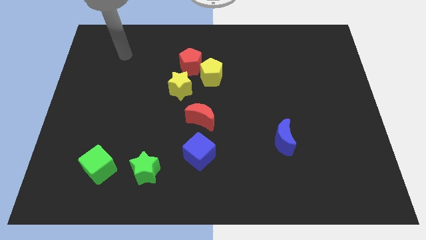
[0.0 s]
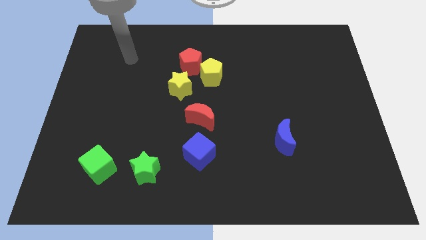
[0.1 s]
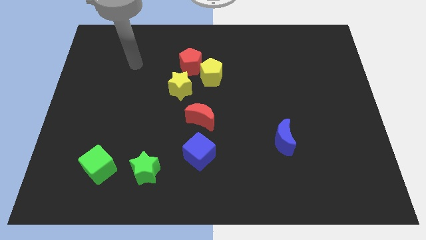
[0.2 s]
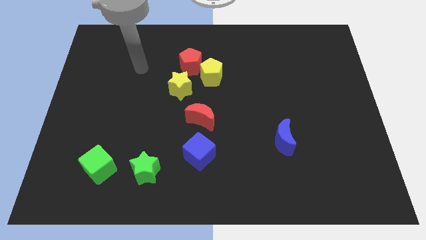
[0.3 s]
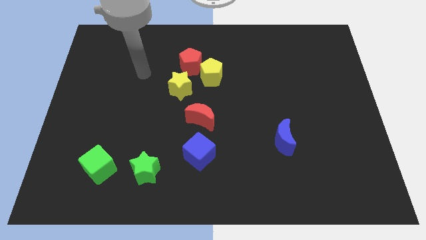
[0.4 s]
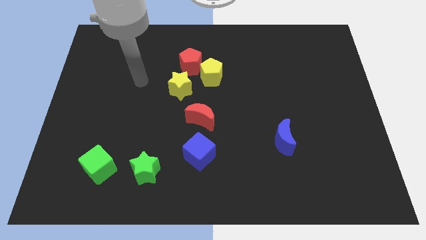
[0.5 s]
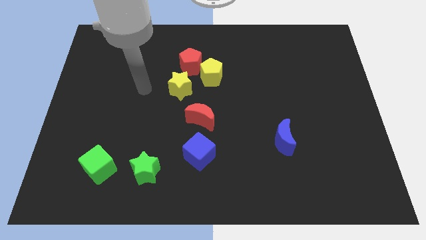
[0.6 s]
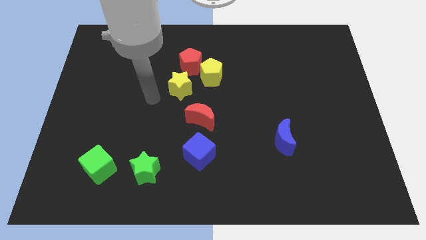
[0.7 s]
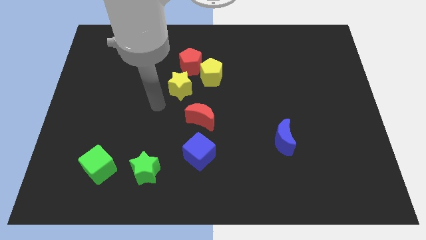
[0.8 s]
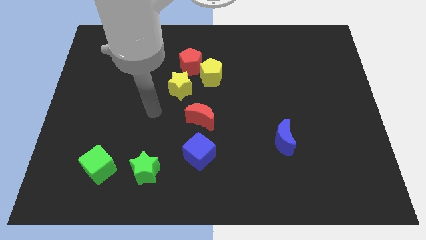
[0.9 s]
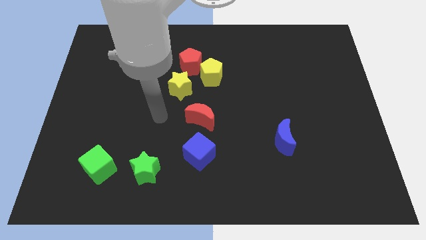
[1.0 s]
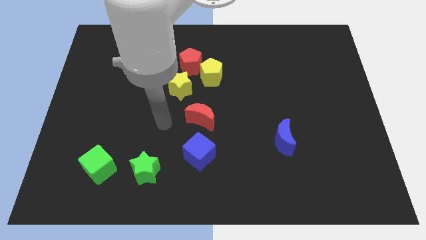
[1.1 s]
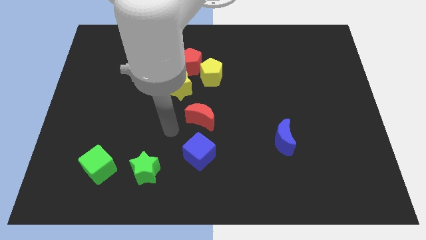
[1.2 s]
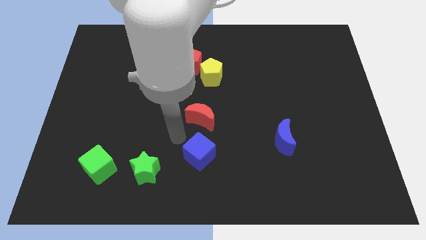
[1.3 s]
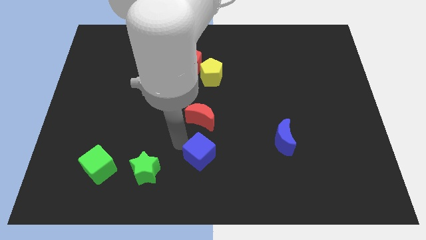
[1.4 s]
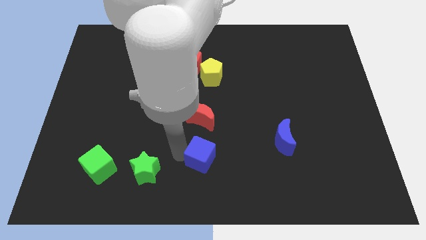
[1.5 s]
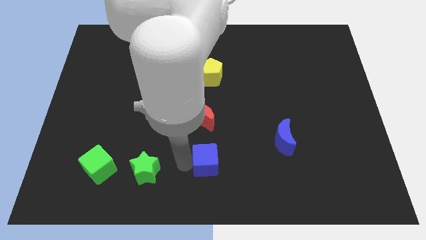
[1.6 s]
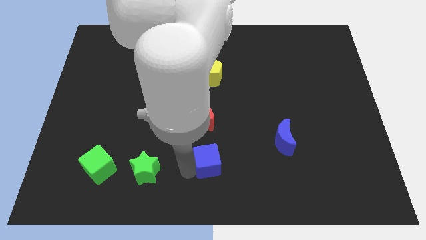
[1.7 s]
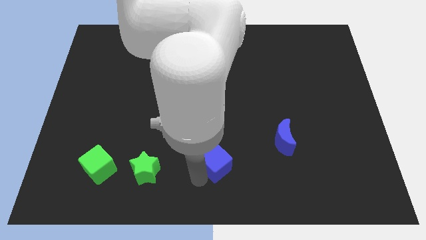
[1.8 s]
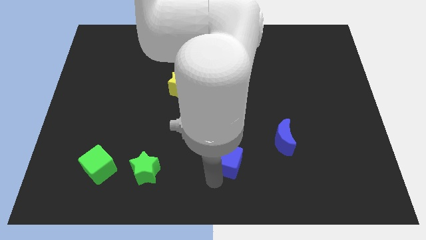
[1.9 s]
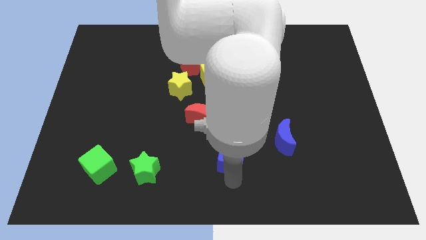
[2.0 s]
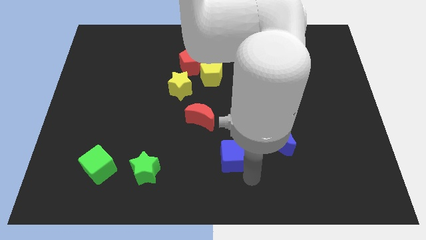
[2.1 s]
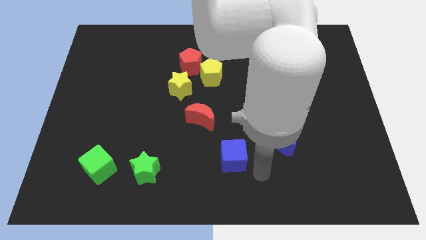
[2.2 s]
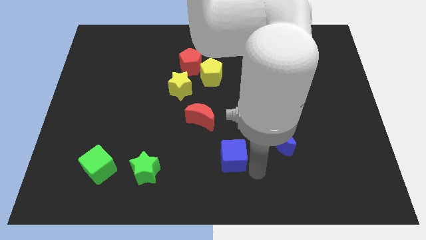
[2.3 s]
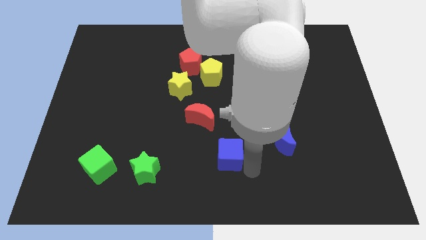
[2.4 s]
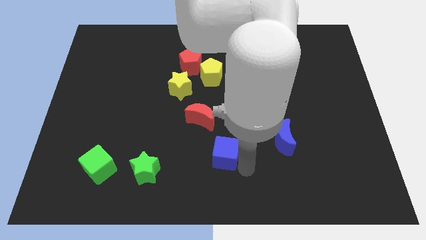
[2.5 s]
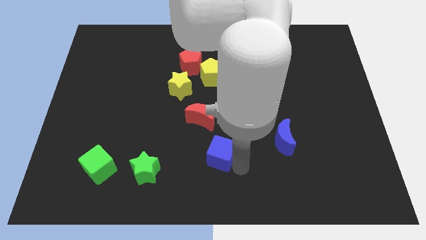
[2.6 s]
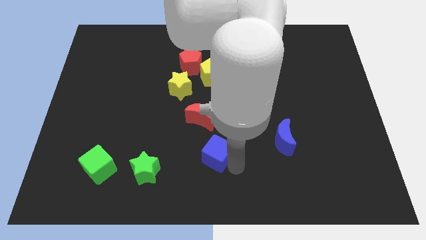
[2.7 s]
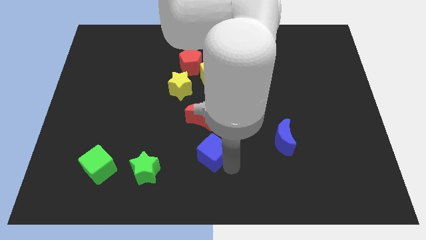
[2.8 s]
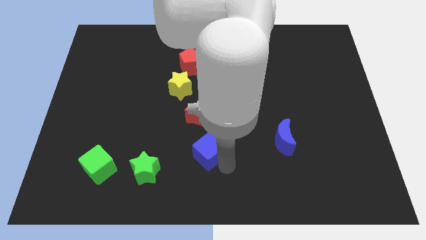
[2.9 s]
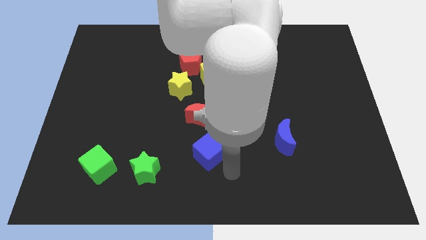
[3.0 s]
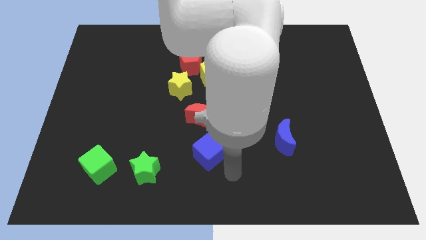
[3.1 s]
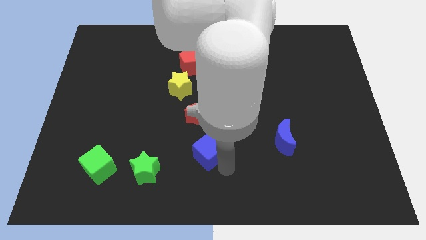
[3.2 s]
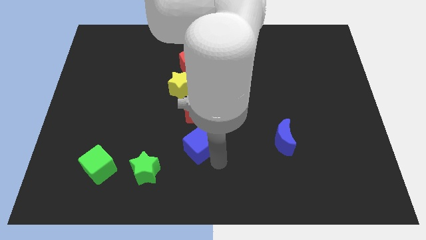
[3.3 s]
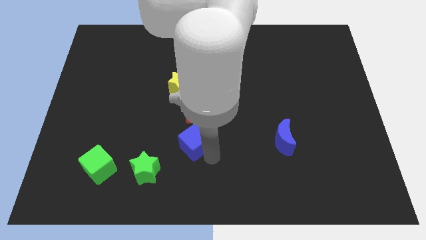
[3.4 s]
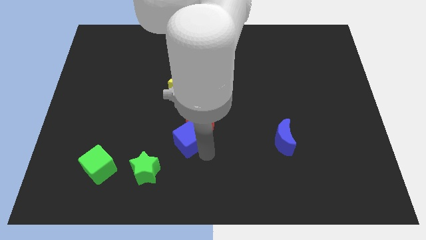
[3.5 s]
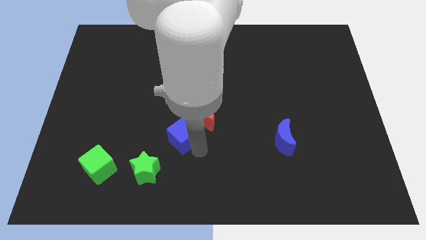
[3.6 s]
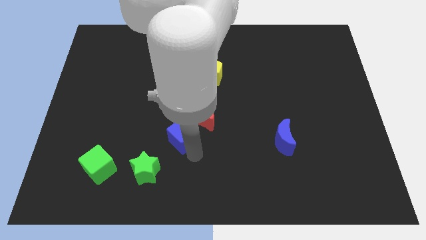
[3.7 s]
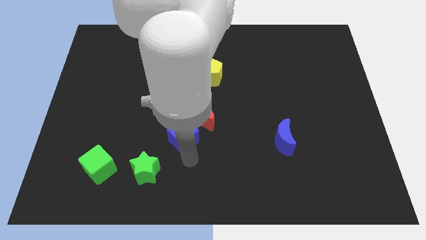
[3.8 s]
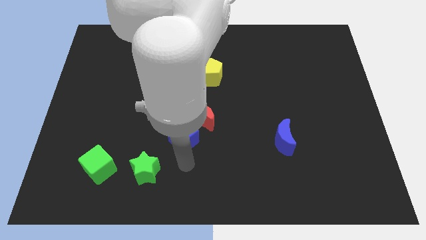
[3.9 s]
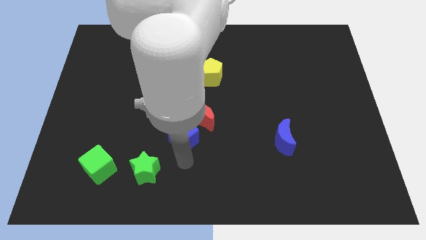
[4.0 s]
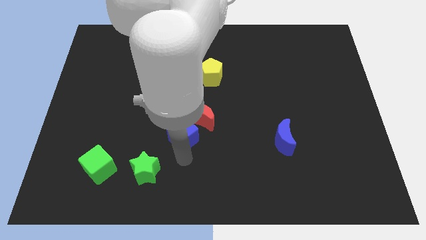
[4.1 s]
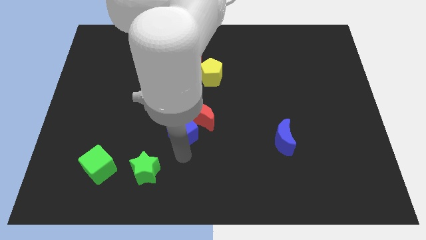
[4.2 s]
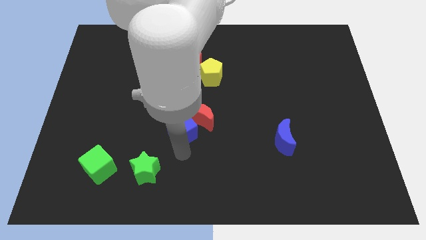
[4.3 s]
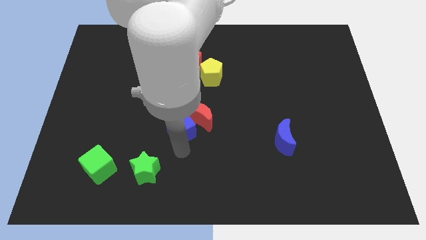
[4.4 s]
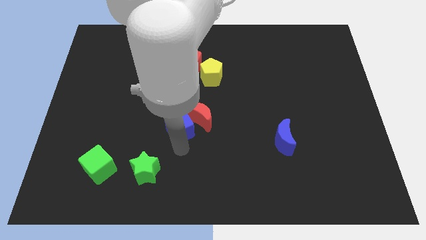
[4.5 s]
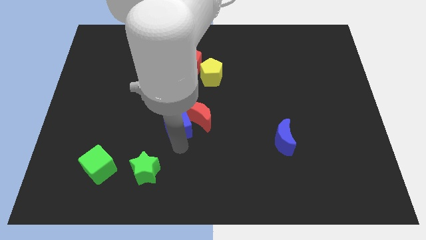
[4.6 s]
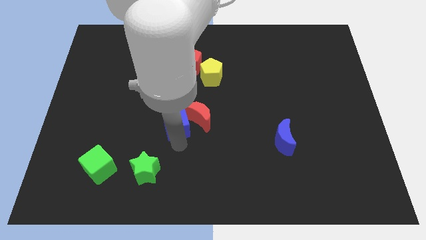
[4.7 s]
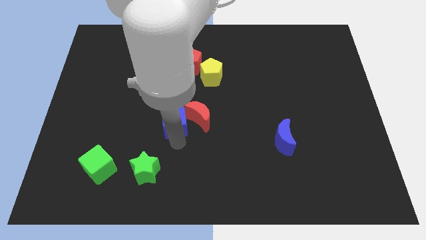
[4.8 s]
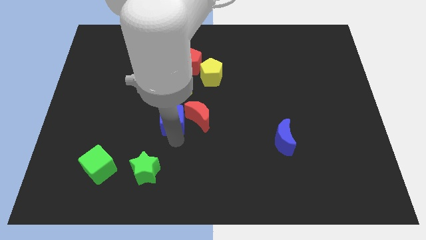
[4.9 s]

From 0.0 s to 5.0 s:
slide the blue cube upwards a little

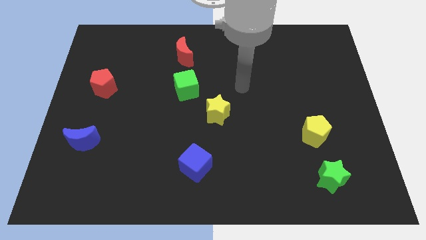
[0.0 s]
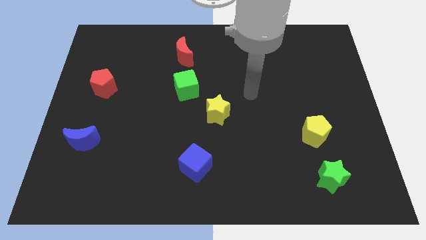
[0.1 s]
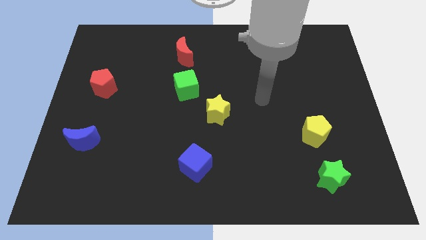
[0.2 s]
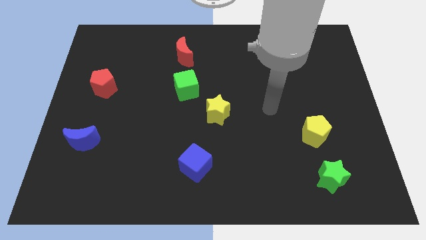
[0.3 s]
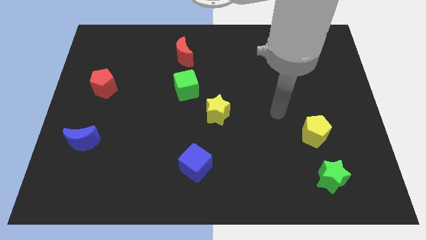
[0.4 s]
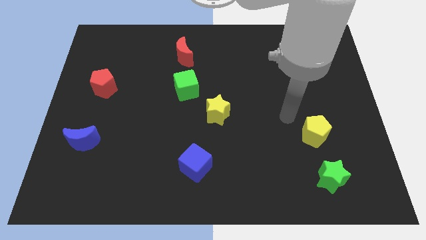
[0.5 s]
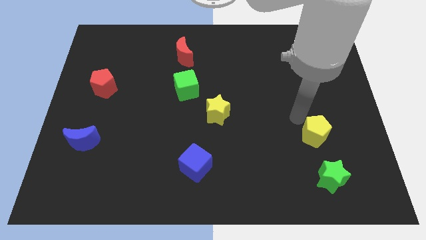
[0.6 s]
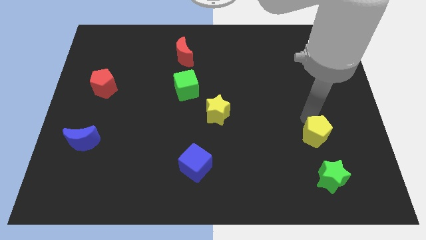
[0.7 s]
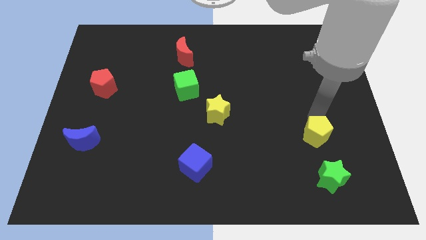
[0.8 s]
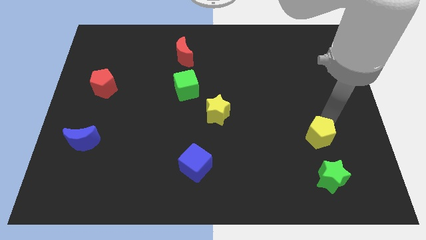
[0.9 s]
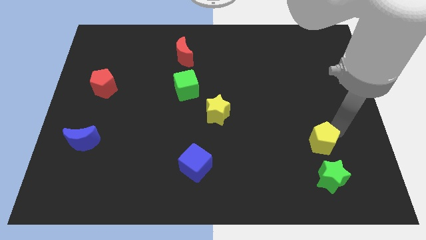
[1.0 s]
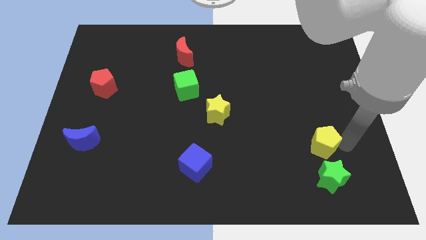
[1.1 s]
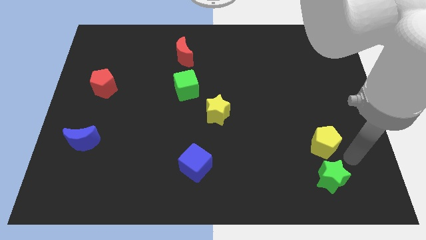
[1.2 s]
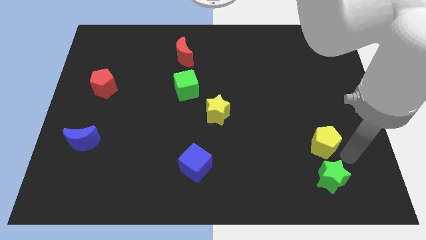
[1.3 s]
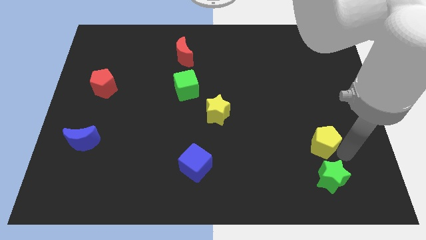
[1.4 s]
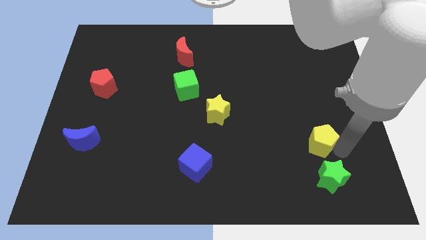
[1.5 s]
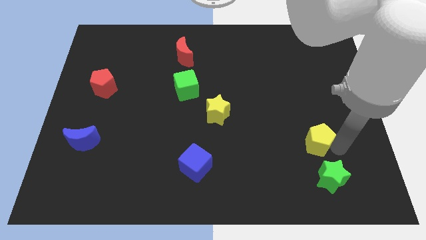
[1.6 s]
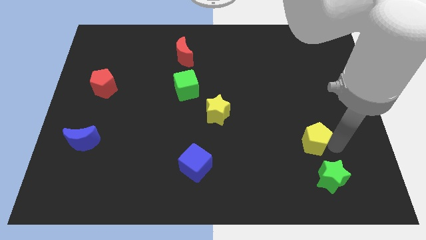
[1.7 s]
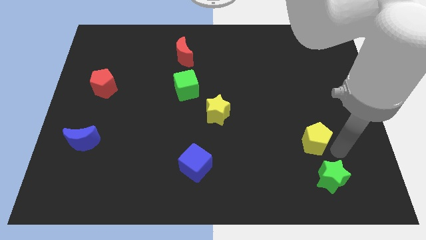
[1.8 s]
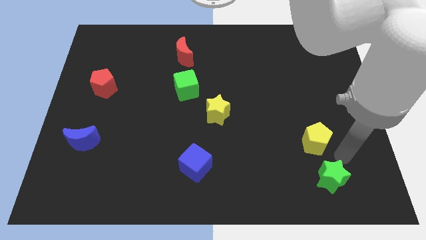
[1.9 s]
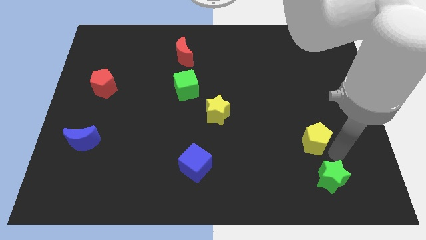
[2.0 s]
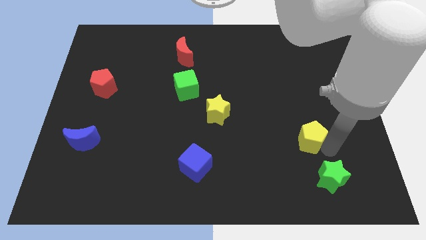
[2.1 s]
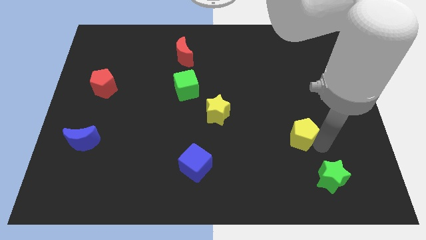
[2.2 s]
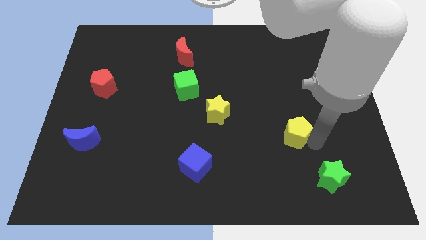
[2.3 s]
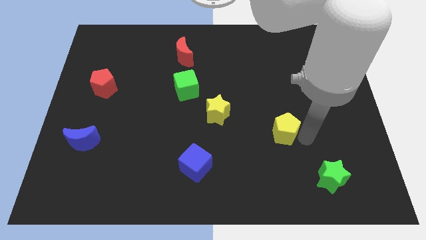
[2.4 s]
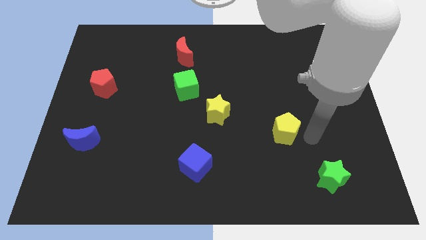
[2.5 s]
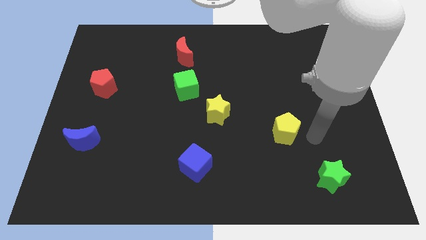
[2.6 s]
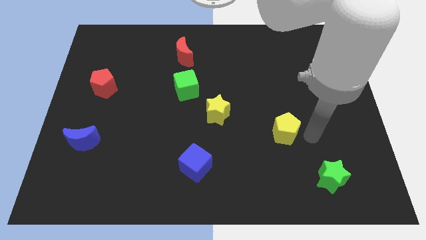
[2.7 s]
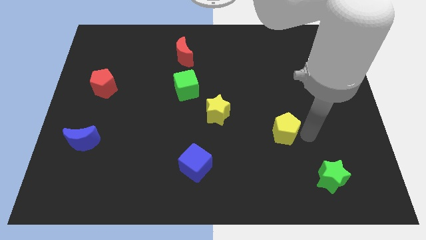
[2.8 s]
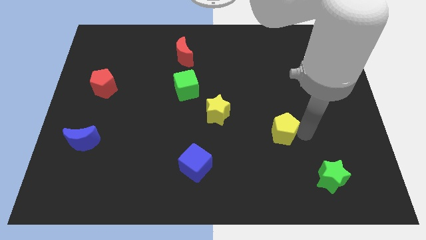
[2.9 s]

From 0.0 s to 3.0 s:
slightly slide the yellow pentagon left

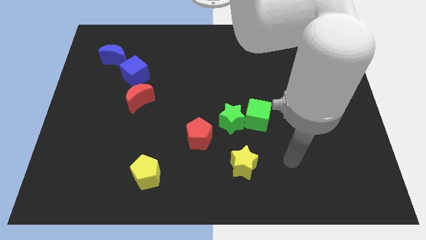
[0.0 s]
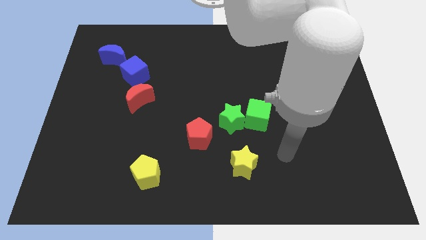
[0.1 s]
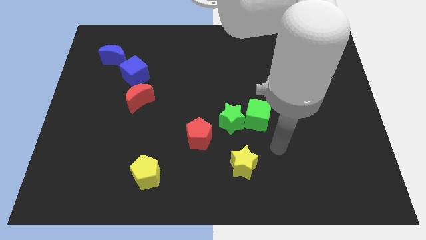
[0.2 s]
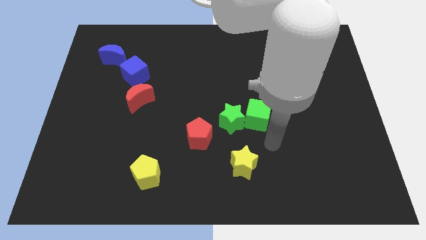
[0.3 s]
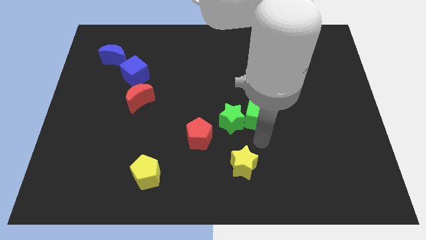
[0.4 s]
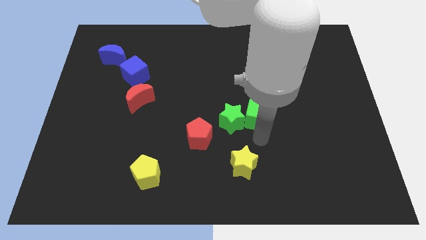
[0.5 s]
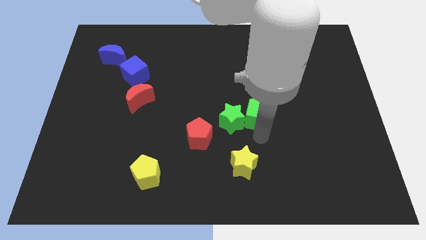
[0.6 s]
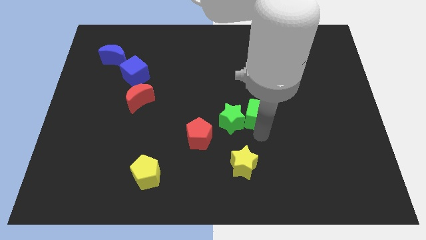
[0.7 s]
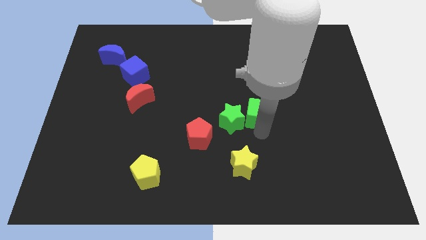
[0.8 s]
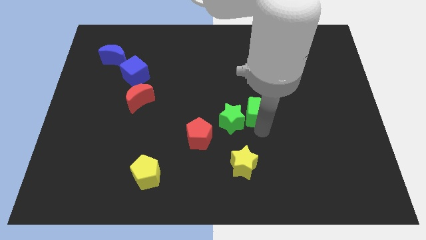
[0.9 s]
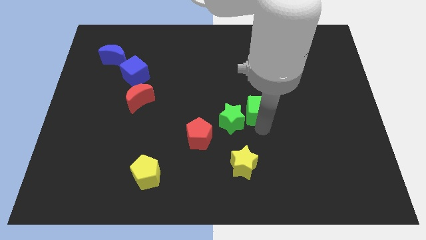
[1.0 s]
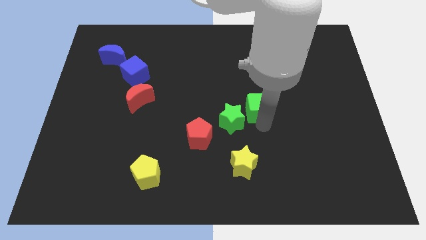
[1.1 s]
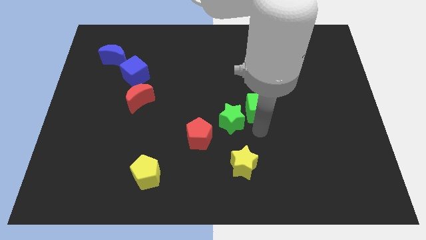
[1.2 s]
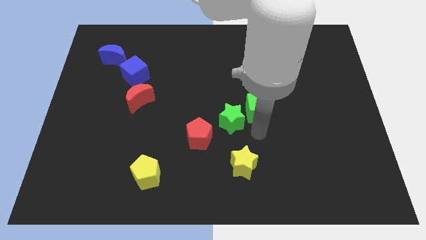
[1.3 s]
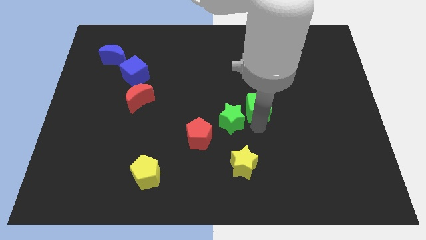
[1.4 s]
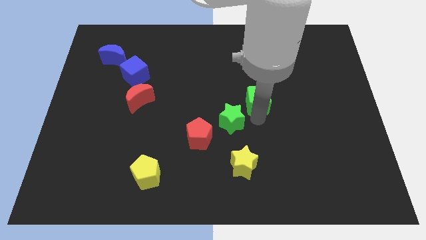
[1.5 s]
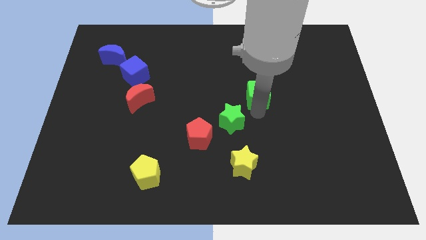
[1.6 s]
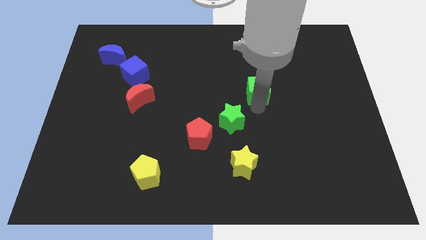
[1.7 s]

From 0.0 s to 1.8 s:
move the green cube slightly up
